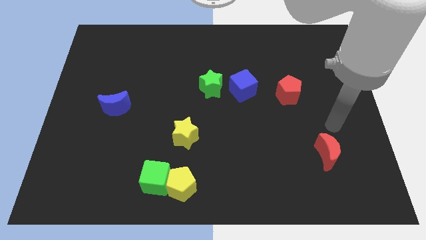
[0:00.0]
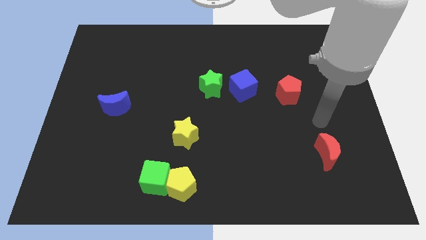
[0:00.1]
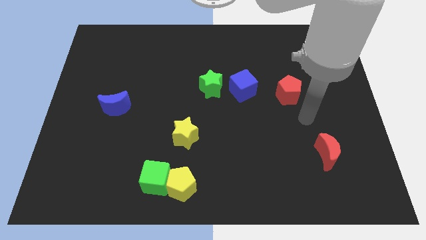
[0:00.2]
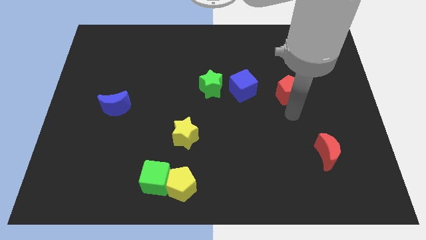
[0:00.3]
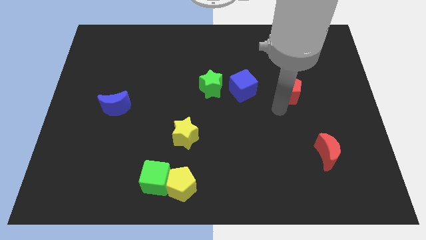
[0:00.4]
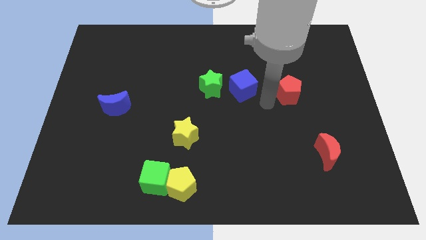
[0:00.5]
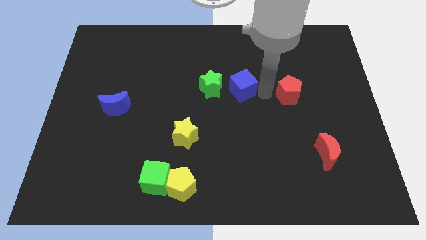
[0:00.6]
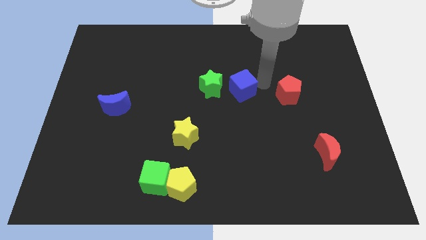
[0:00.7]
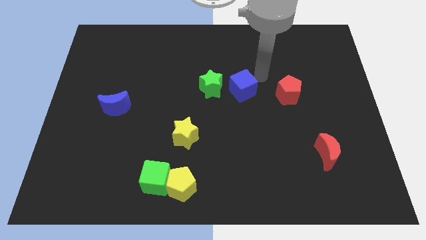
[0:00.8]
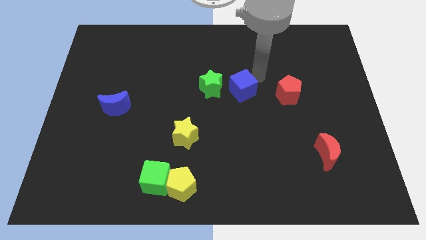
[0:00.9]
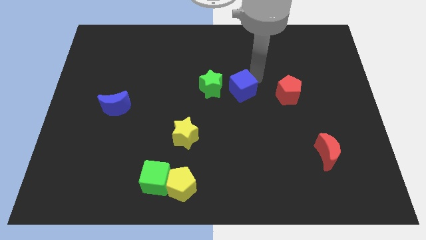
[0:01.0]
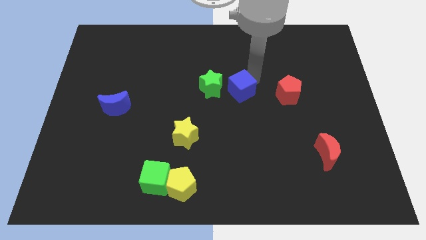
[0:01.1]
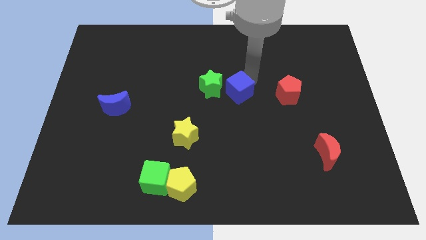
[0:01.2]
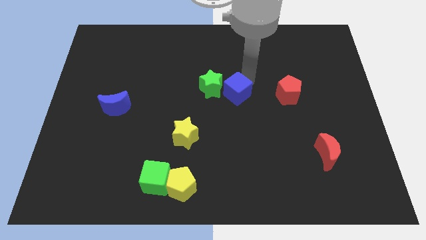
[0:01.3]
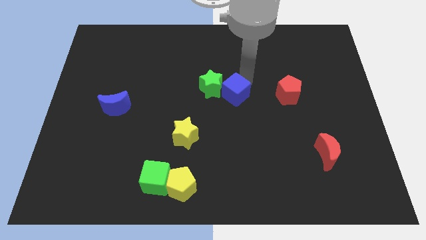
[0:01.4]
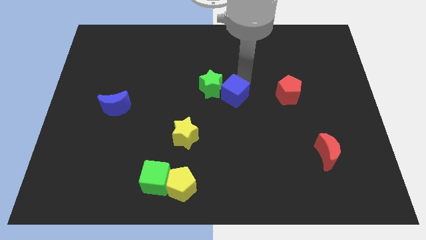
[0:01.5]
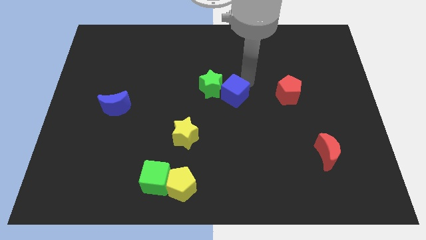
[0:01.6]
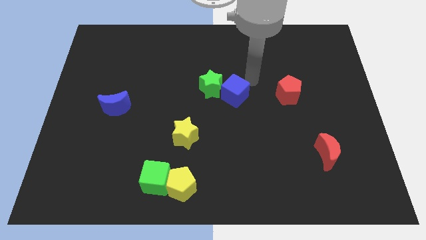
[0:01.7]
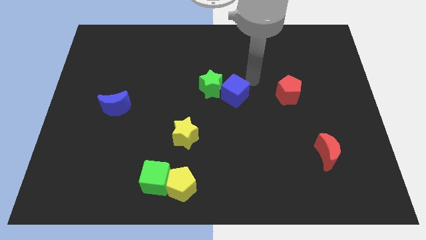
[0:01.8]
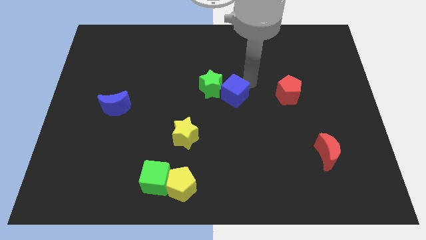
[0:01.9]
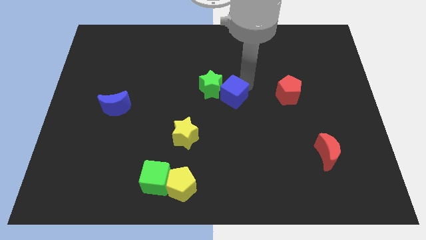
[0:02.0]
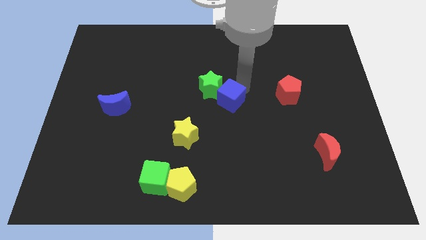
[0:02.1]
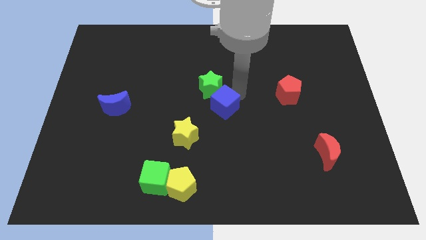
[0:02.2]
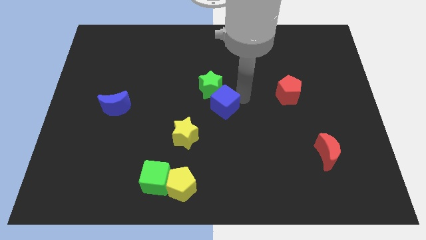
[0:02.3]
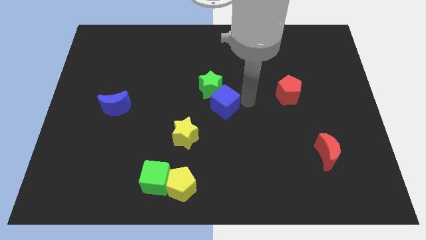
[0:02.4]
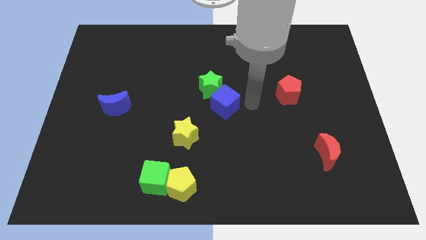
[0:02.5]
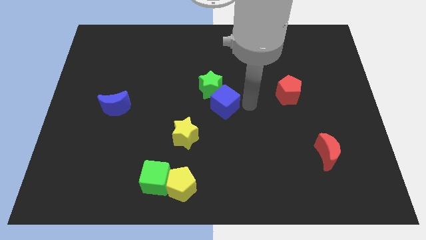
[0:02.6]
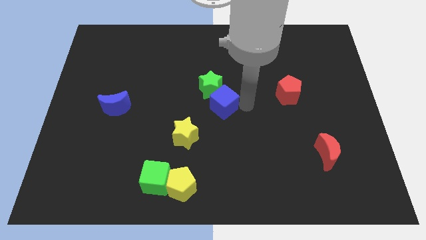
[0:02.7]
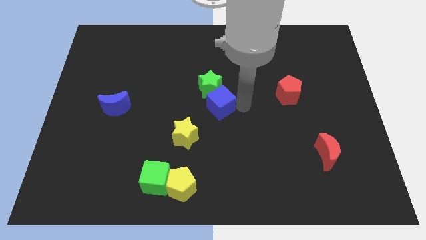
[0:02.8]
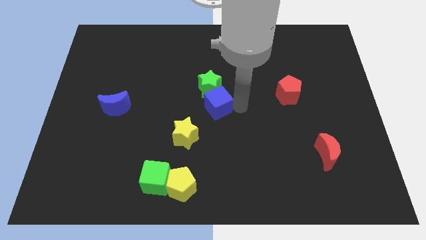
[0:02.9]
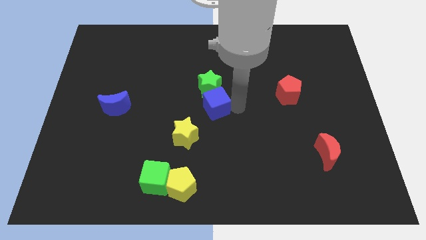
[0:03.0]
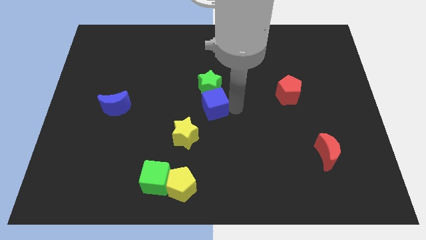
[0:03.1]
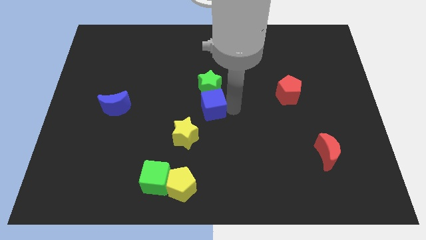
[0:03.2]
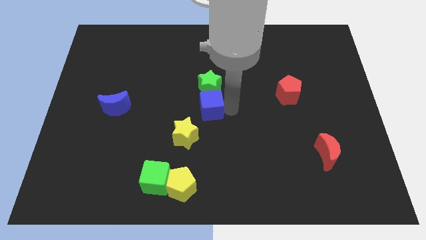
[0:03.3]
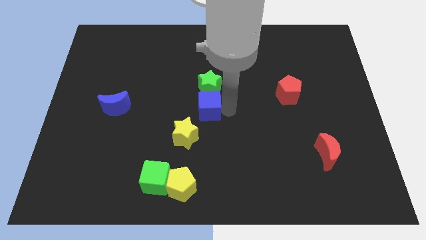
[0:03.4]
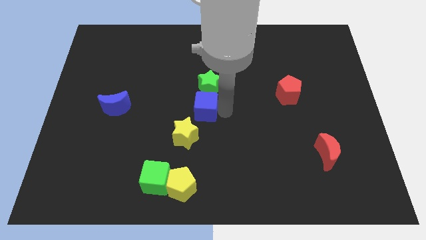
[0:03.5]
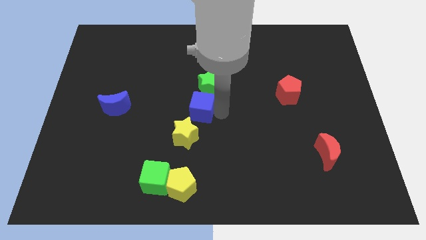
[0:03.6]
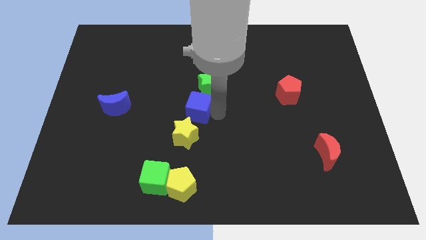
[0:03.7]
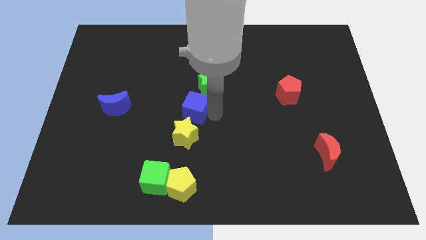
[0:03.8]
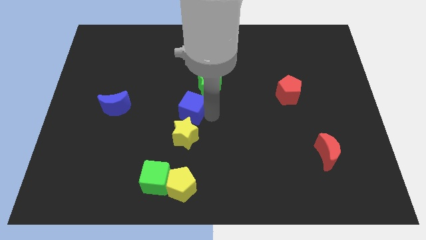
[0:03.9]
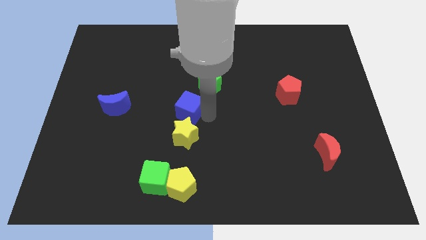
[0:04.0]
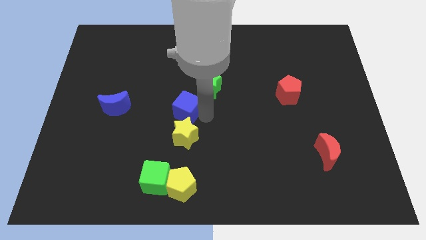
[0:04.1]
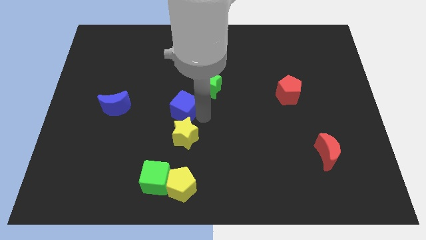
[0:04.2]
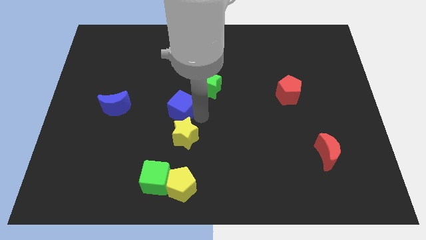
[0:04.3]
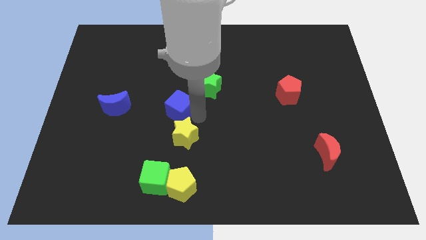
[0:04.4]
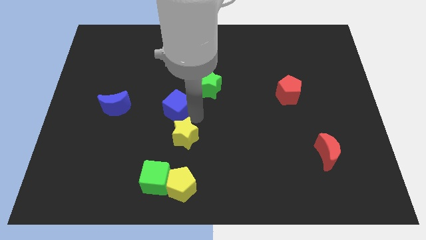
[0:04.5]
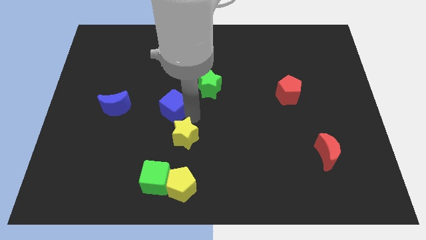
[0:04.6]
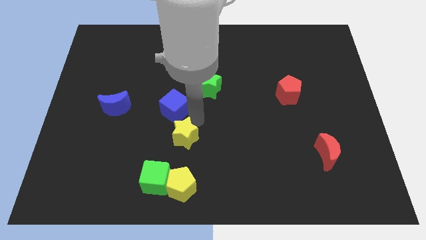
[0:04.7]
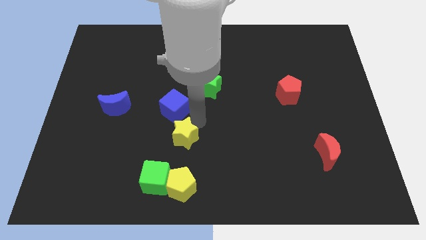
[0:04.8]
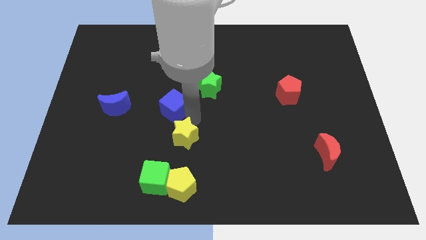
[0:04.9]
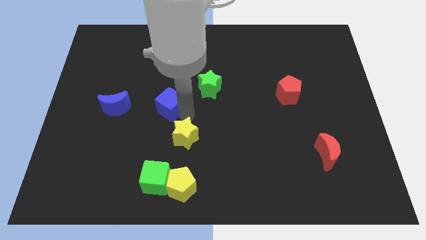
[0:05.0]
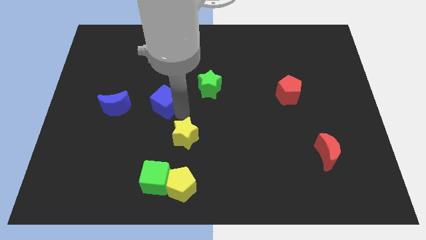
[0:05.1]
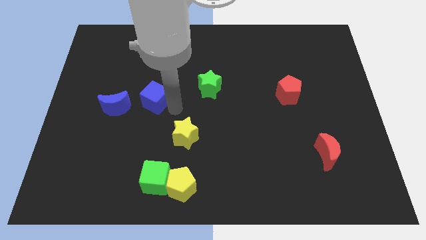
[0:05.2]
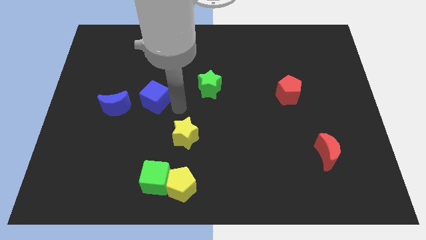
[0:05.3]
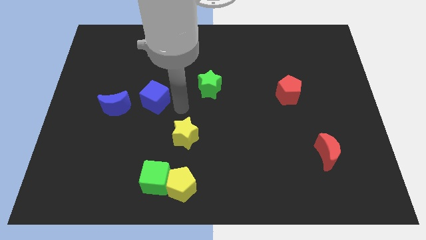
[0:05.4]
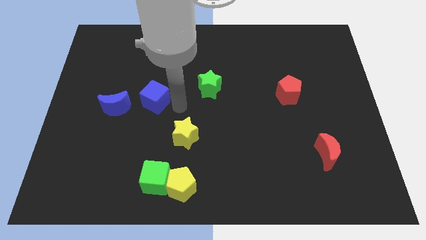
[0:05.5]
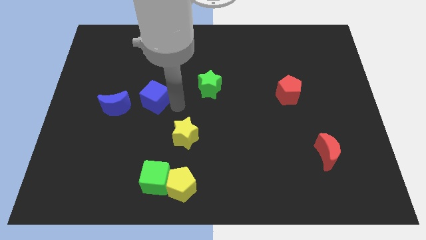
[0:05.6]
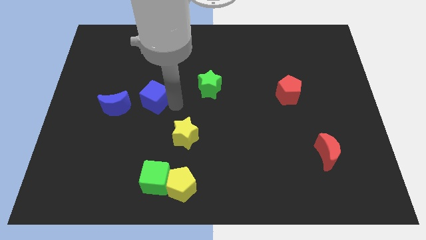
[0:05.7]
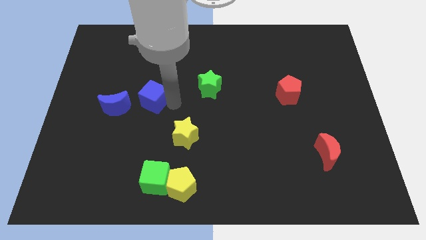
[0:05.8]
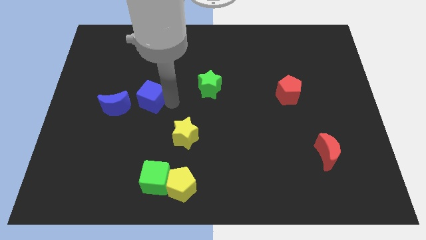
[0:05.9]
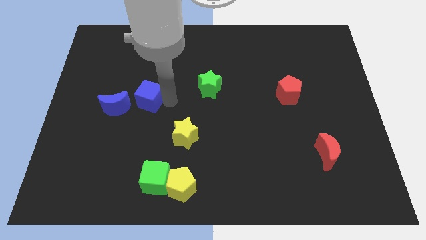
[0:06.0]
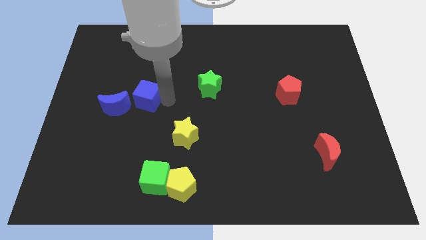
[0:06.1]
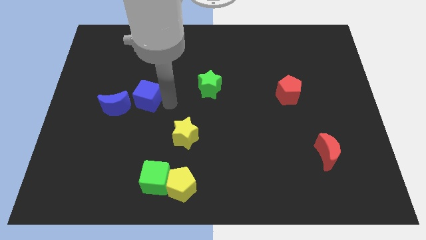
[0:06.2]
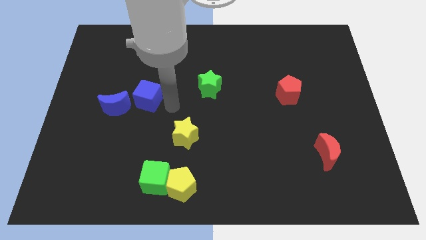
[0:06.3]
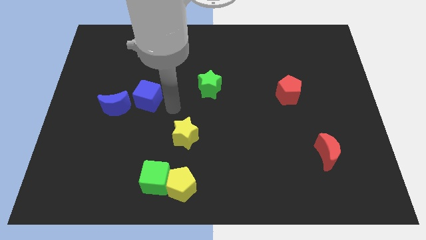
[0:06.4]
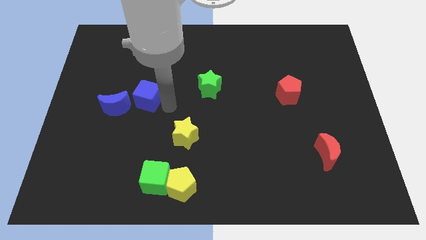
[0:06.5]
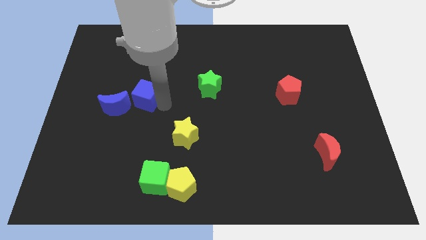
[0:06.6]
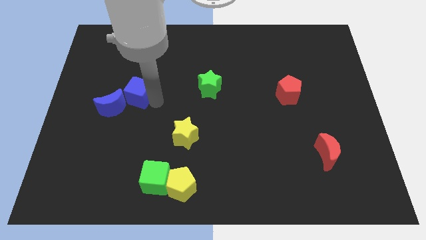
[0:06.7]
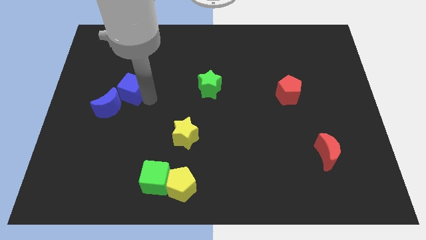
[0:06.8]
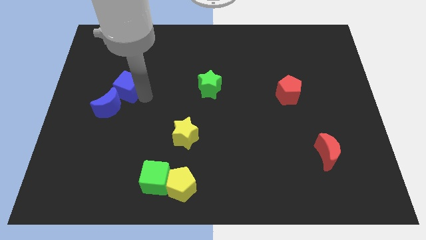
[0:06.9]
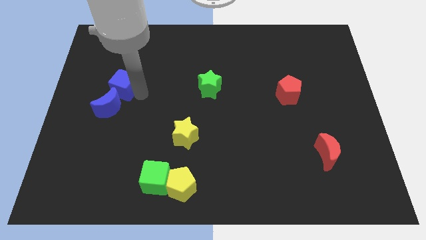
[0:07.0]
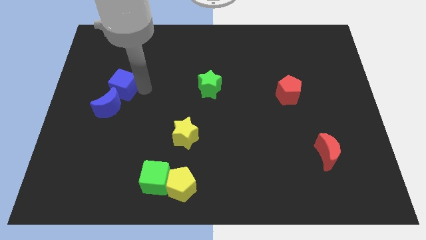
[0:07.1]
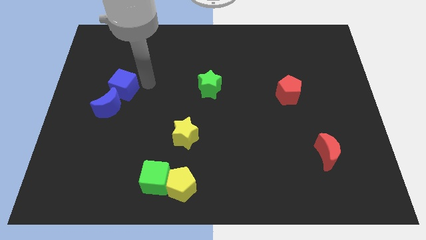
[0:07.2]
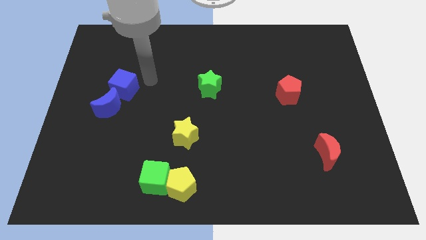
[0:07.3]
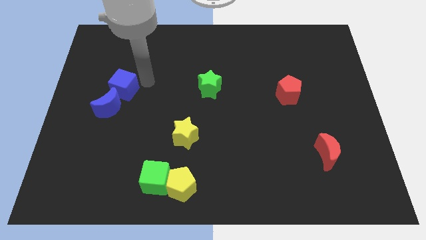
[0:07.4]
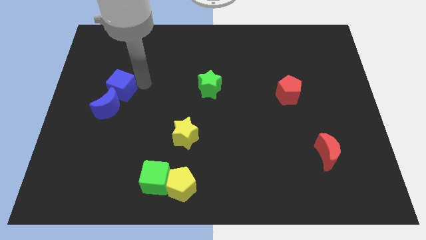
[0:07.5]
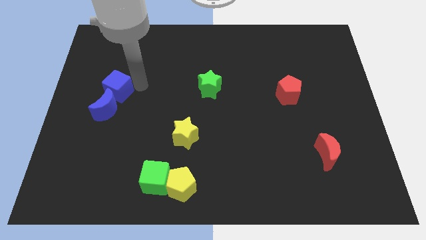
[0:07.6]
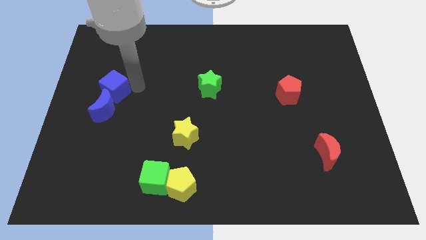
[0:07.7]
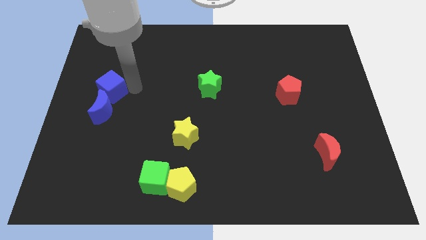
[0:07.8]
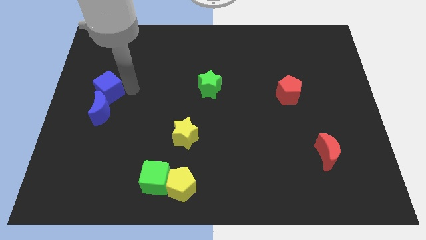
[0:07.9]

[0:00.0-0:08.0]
push the blue cube to the left side of the board
